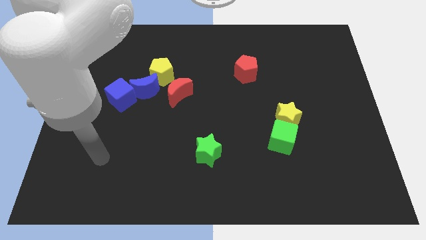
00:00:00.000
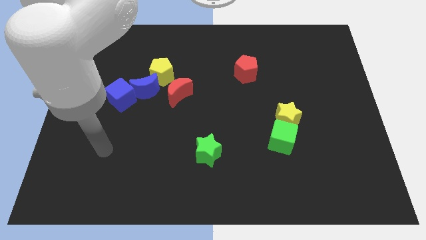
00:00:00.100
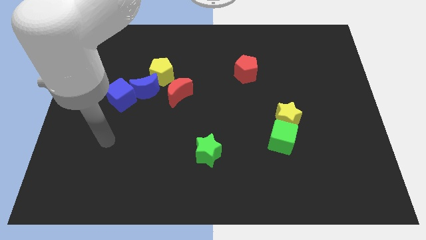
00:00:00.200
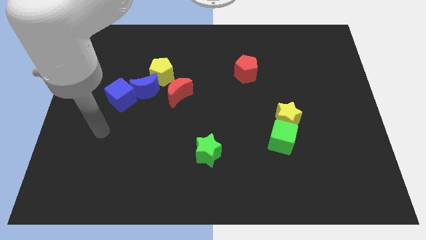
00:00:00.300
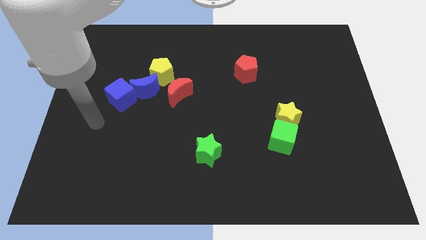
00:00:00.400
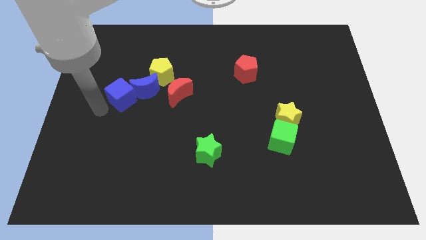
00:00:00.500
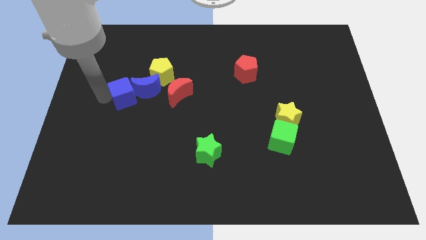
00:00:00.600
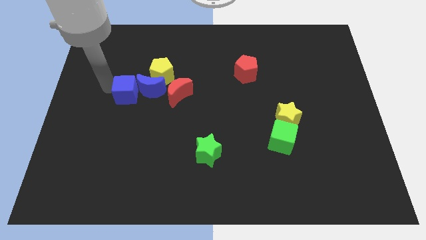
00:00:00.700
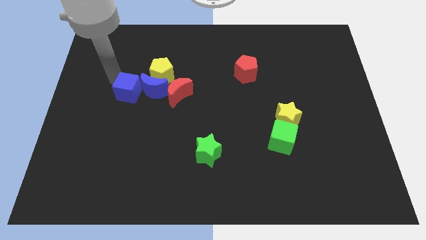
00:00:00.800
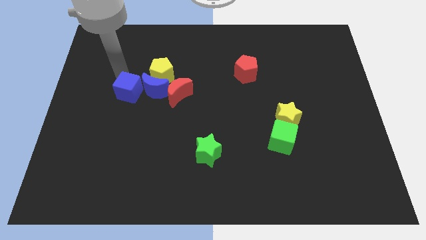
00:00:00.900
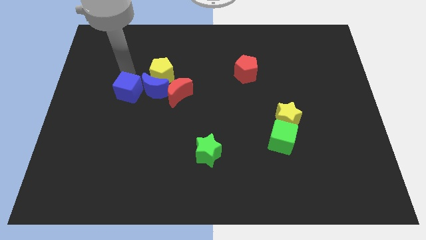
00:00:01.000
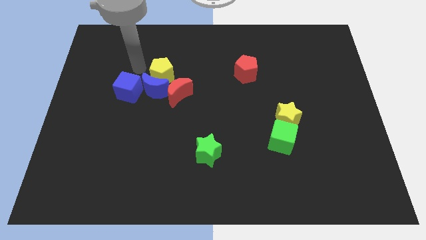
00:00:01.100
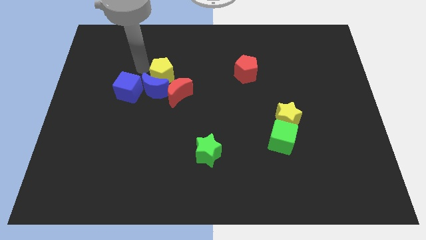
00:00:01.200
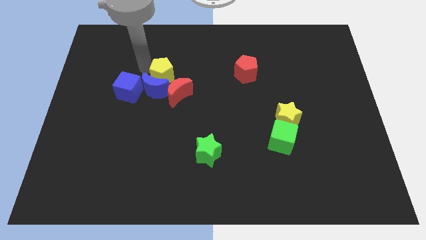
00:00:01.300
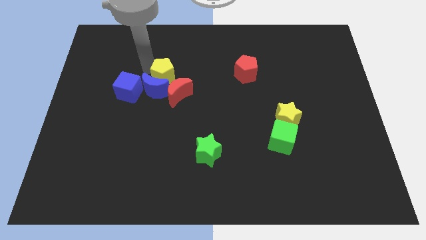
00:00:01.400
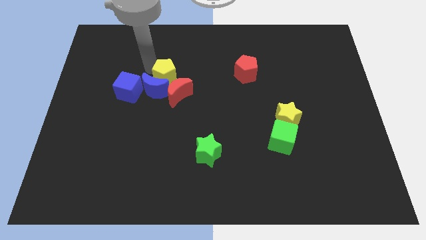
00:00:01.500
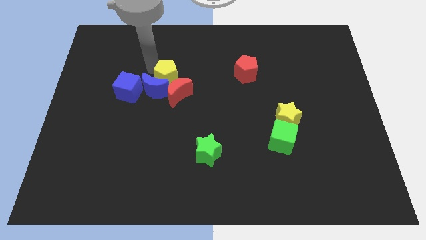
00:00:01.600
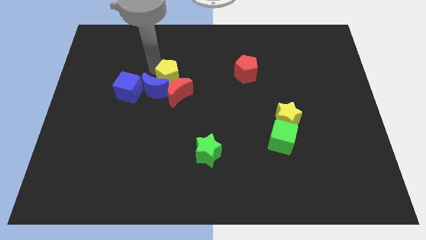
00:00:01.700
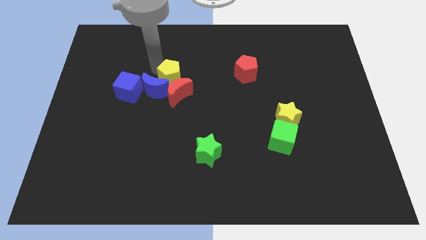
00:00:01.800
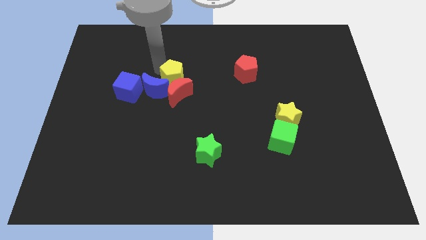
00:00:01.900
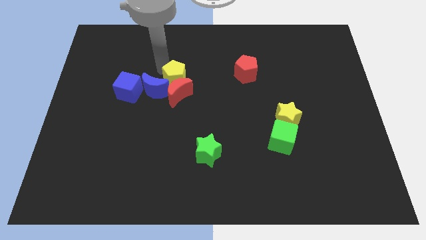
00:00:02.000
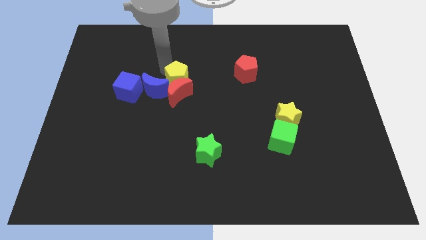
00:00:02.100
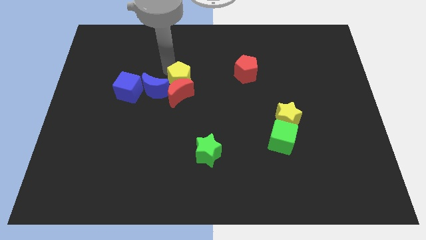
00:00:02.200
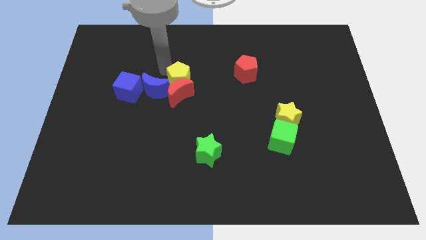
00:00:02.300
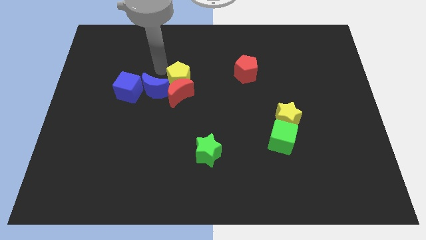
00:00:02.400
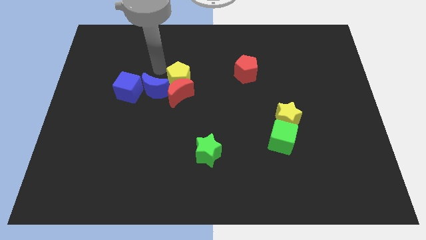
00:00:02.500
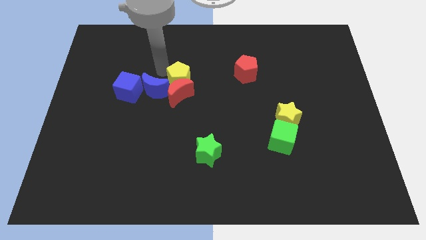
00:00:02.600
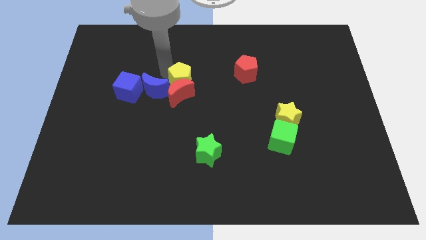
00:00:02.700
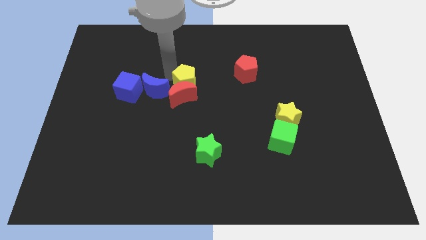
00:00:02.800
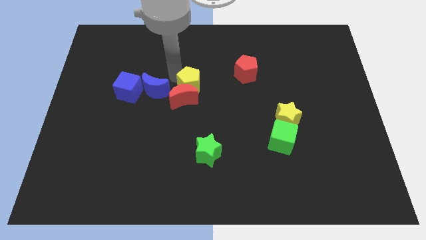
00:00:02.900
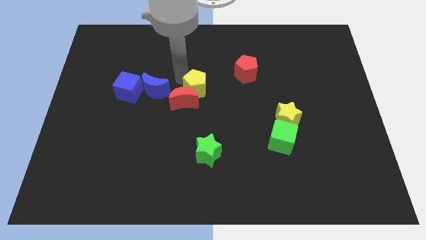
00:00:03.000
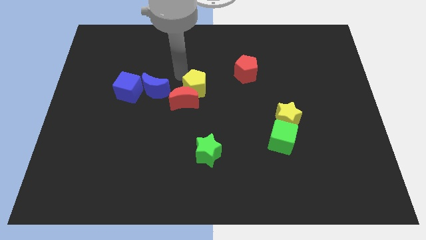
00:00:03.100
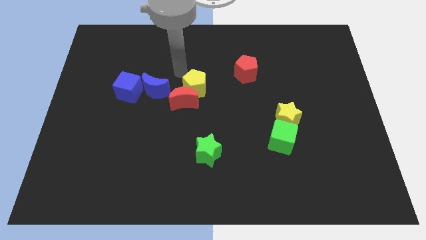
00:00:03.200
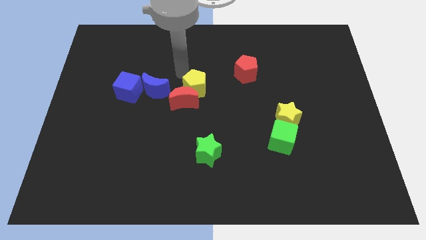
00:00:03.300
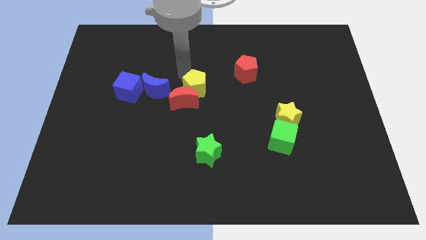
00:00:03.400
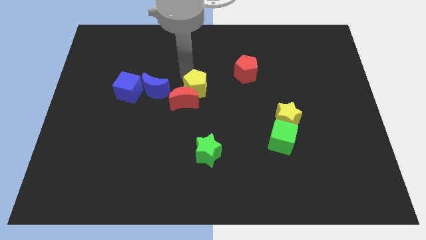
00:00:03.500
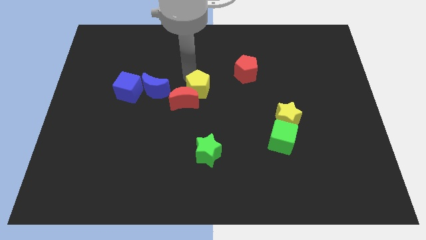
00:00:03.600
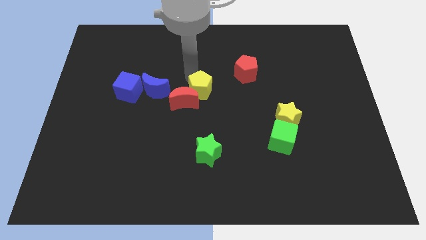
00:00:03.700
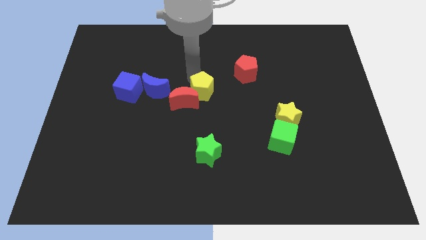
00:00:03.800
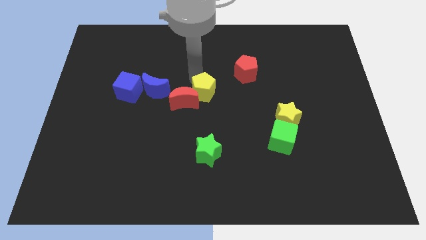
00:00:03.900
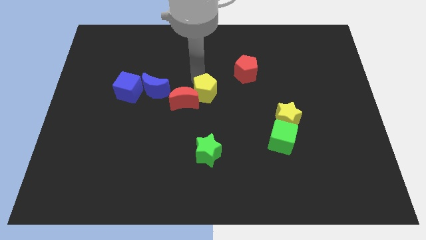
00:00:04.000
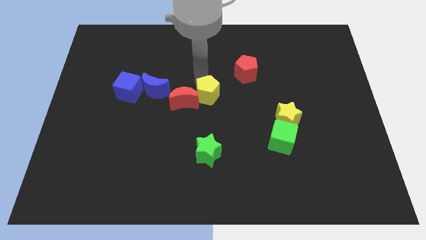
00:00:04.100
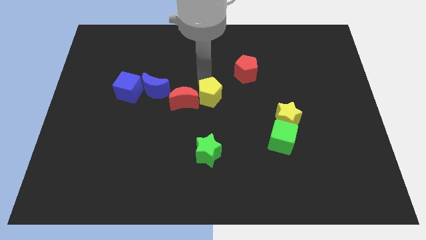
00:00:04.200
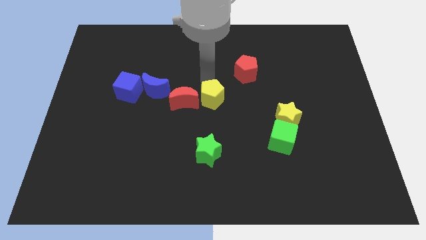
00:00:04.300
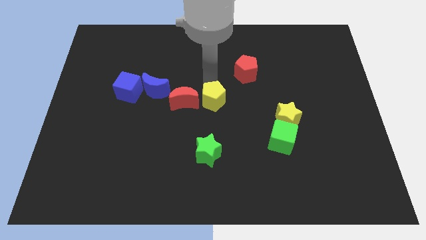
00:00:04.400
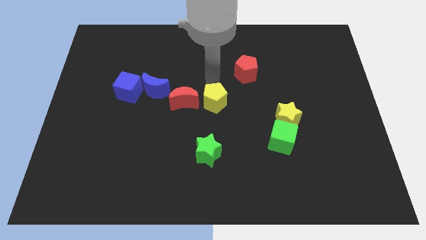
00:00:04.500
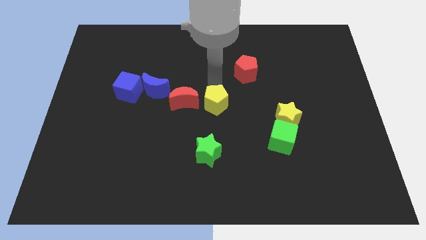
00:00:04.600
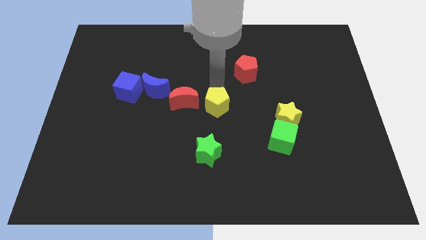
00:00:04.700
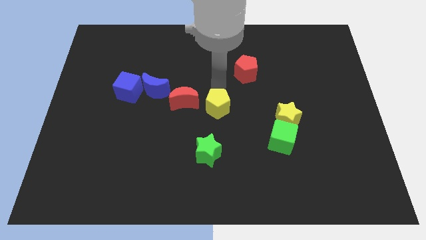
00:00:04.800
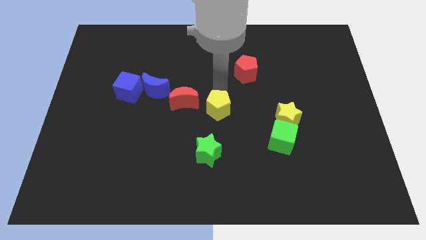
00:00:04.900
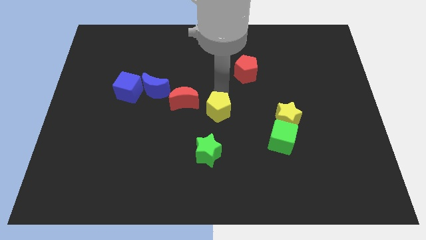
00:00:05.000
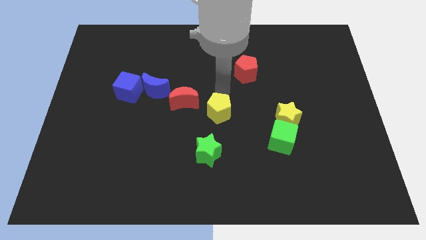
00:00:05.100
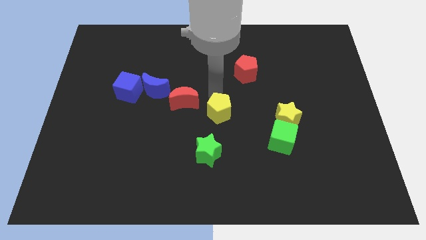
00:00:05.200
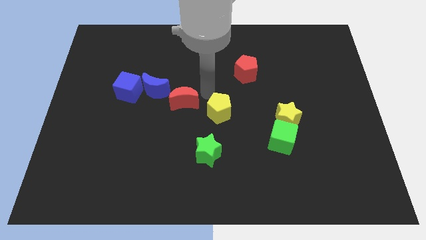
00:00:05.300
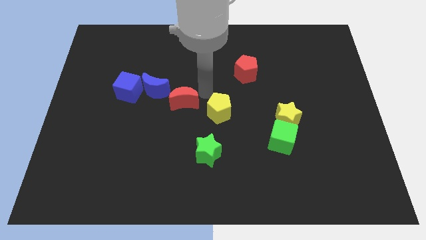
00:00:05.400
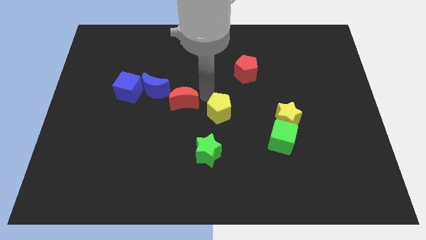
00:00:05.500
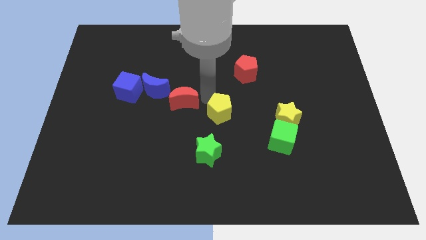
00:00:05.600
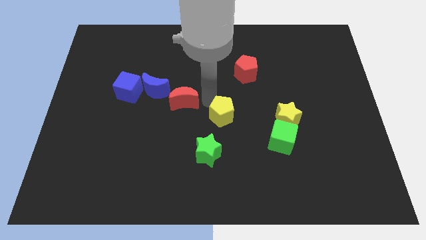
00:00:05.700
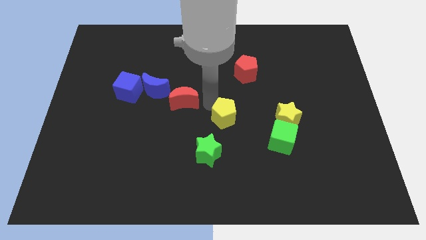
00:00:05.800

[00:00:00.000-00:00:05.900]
slide the yellow pentagon down and right diagonally

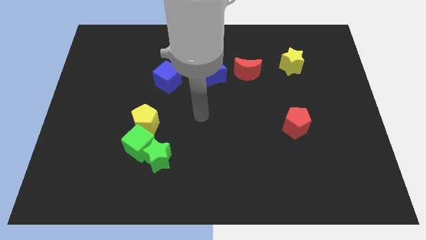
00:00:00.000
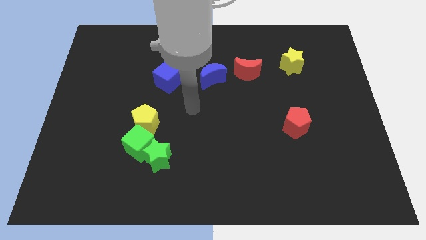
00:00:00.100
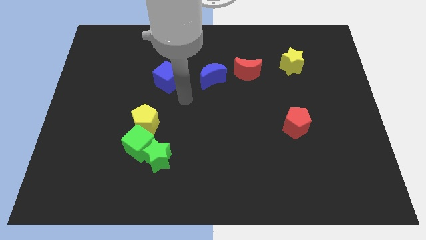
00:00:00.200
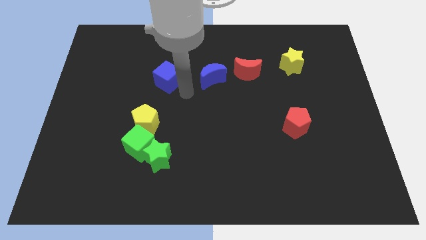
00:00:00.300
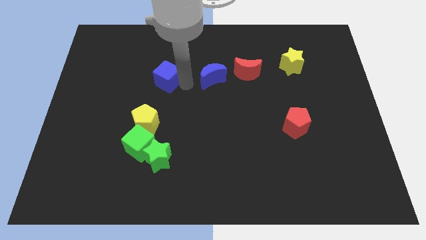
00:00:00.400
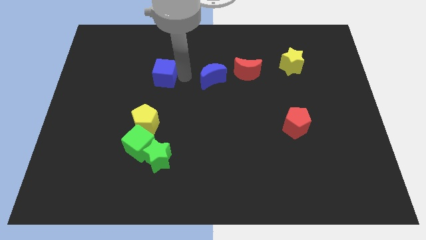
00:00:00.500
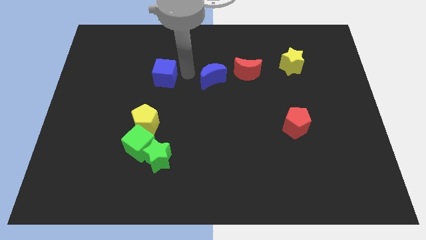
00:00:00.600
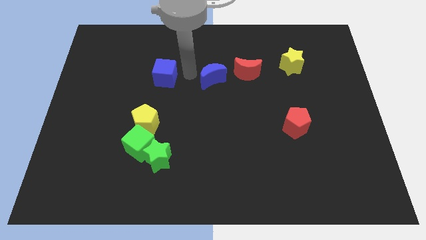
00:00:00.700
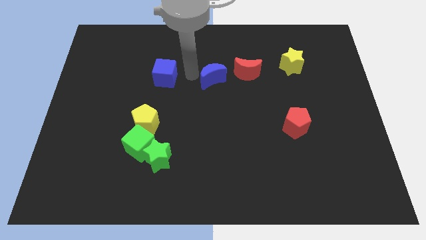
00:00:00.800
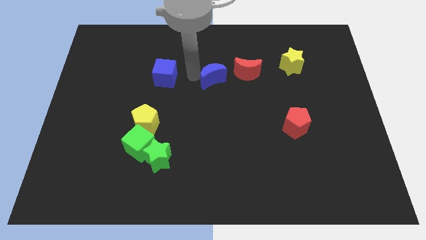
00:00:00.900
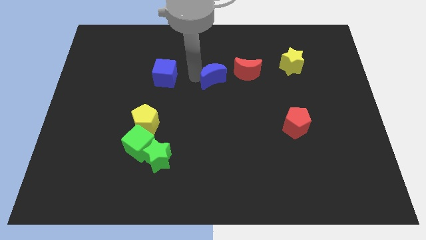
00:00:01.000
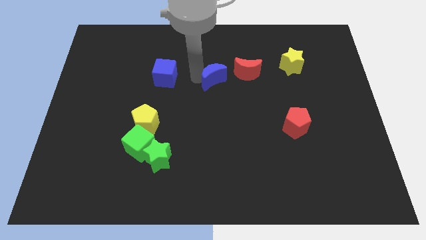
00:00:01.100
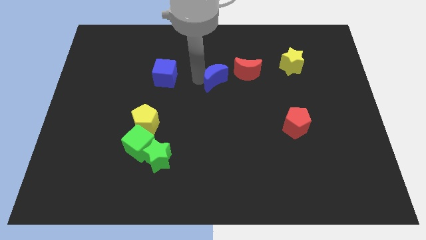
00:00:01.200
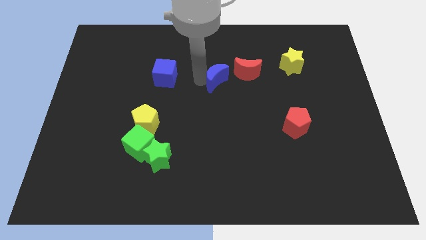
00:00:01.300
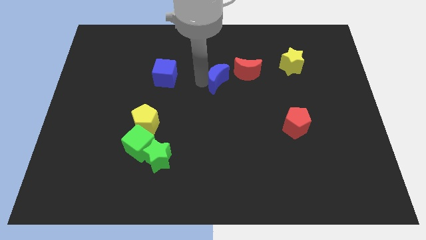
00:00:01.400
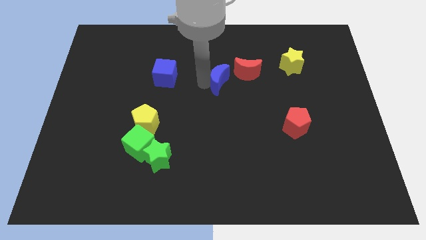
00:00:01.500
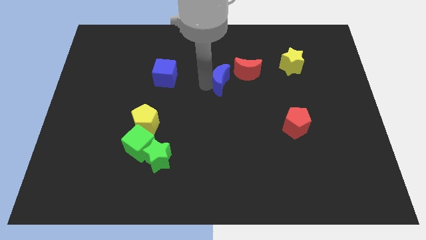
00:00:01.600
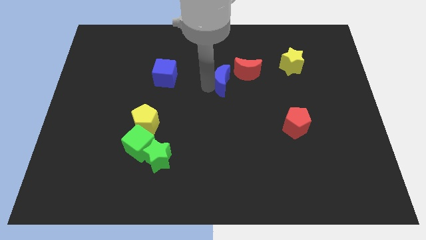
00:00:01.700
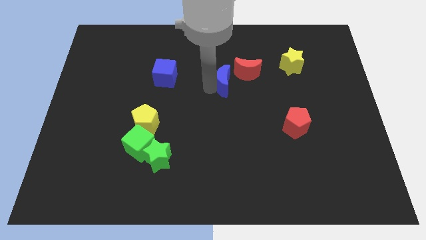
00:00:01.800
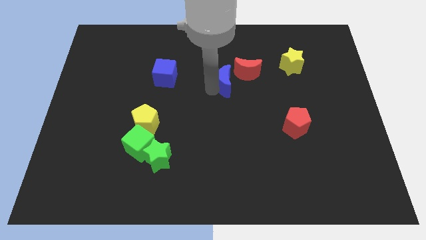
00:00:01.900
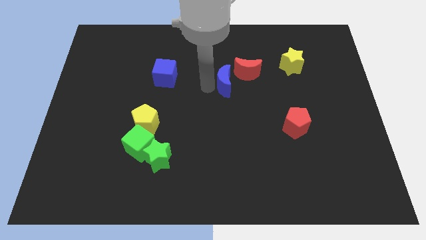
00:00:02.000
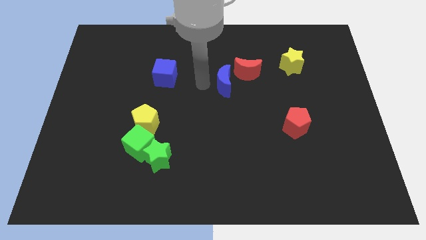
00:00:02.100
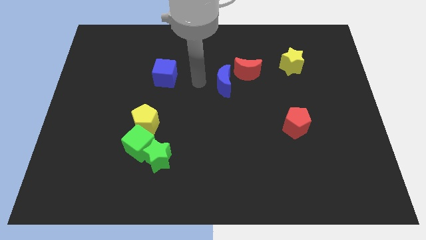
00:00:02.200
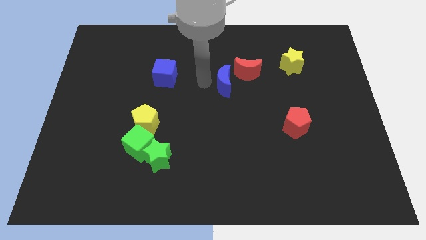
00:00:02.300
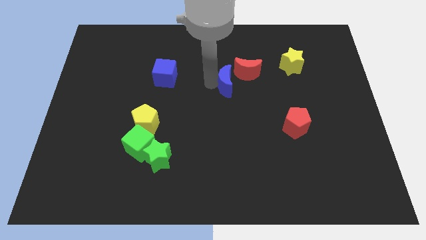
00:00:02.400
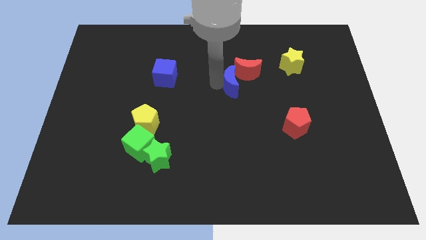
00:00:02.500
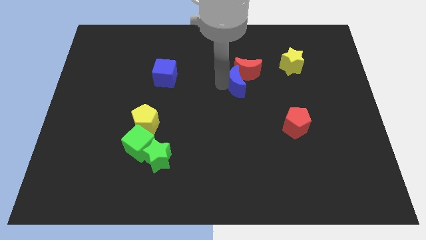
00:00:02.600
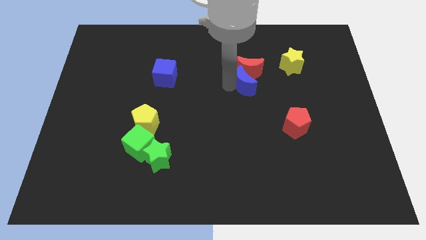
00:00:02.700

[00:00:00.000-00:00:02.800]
slide the blue moon a bit to the right
